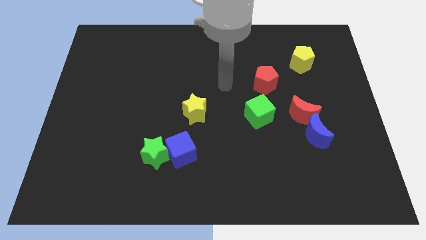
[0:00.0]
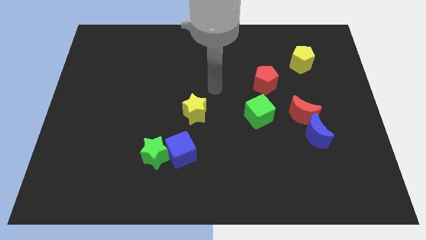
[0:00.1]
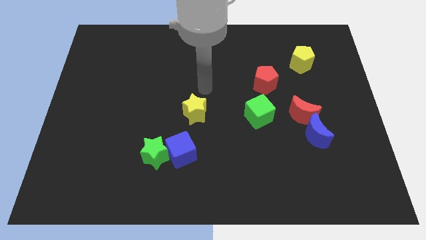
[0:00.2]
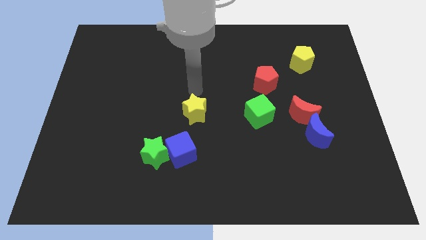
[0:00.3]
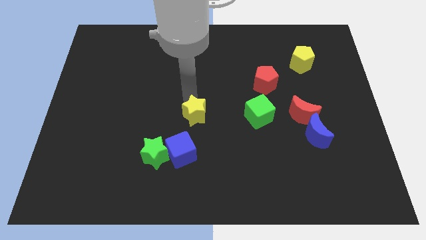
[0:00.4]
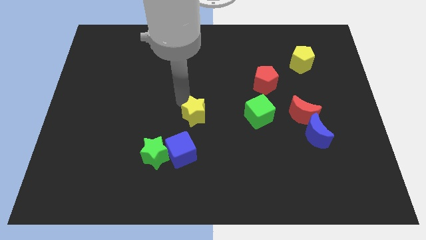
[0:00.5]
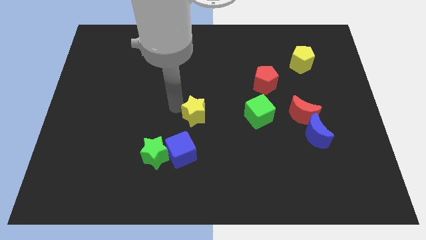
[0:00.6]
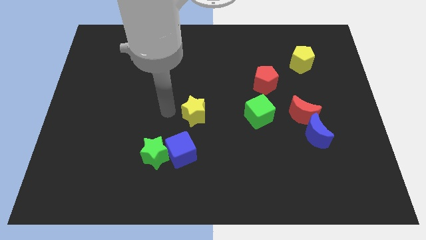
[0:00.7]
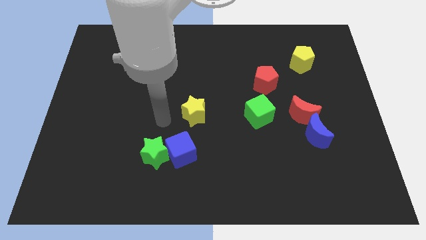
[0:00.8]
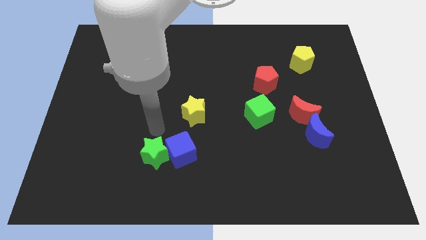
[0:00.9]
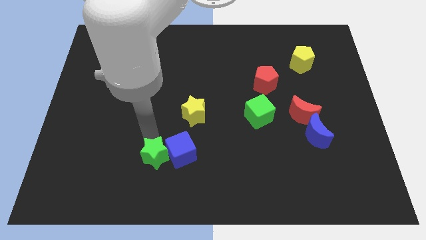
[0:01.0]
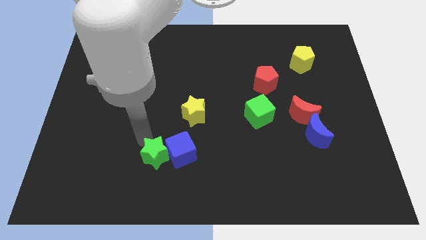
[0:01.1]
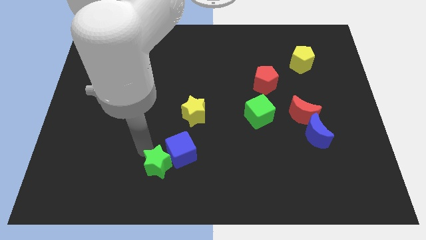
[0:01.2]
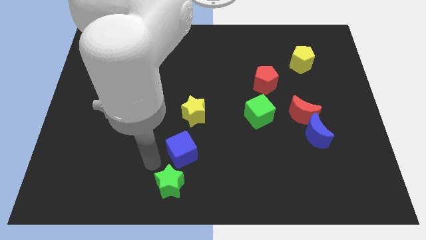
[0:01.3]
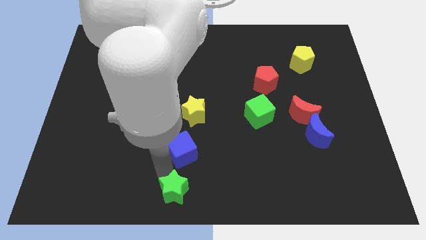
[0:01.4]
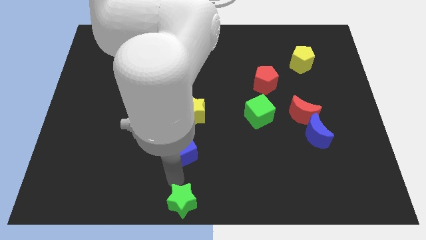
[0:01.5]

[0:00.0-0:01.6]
separate the blue cube from the green star

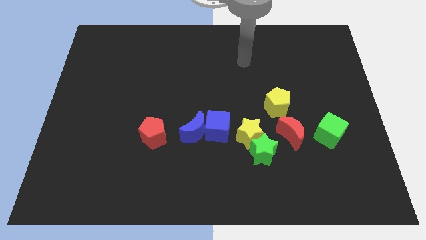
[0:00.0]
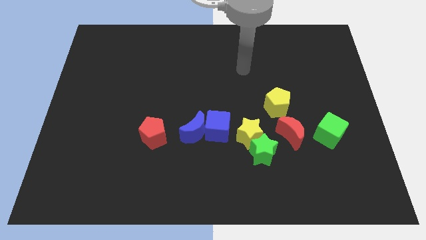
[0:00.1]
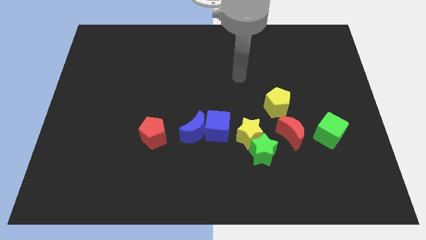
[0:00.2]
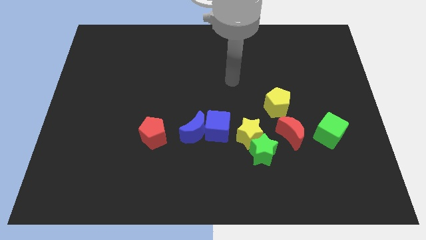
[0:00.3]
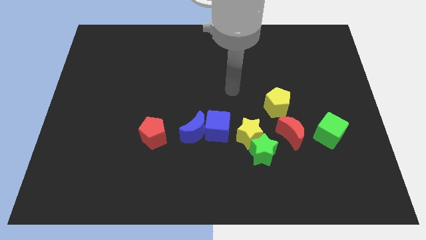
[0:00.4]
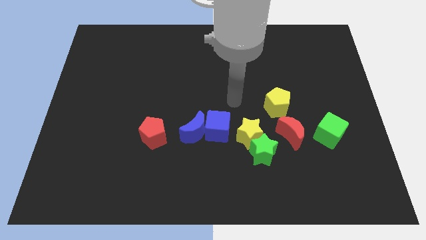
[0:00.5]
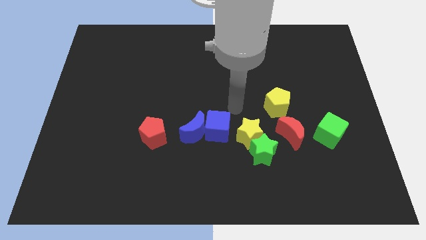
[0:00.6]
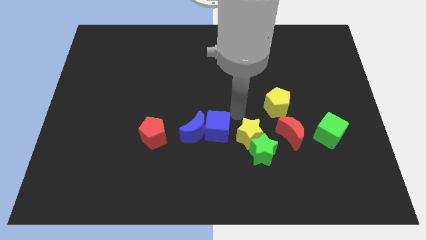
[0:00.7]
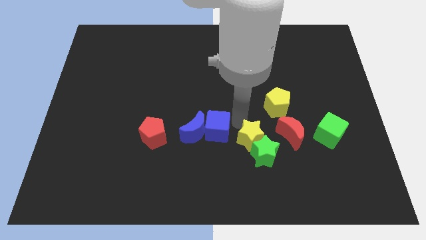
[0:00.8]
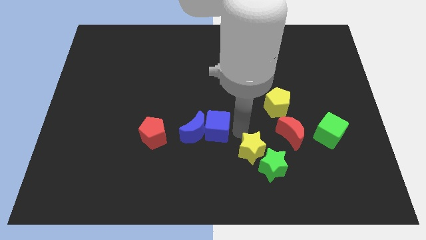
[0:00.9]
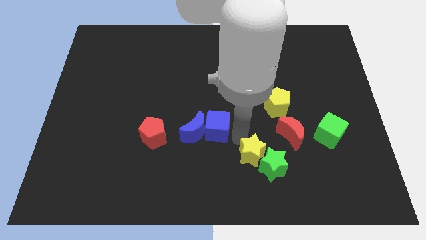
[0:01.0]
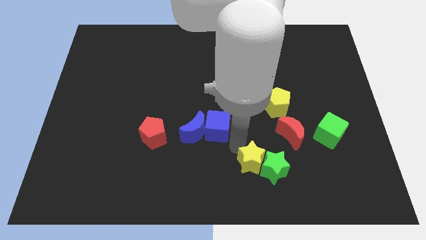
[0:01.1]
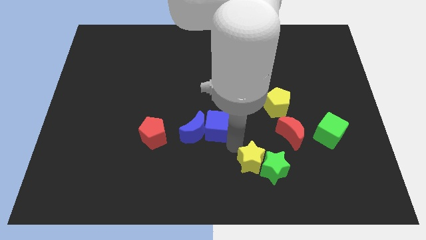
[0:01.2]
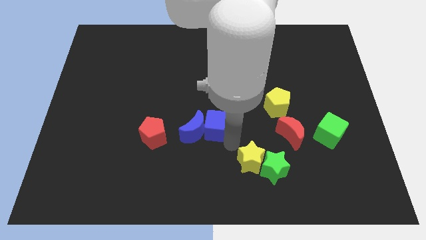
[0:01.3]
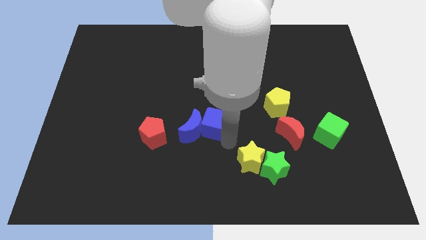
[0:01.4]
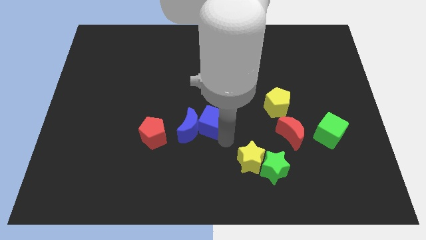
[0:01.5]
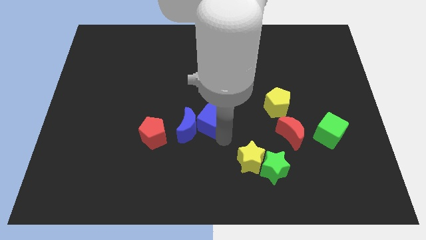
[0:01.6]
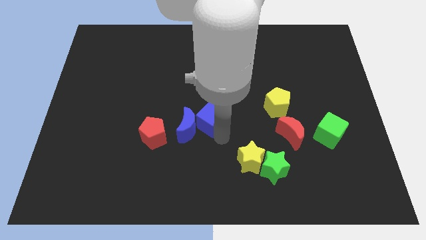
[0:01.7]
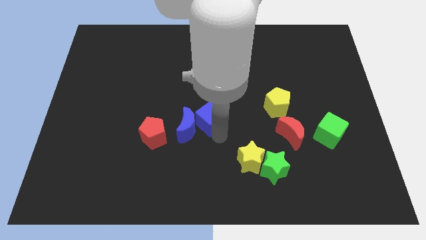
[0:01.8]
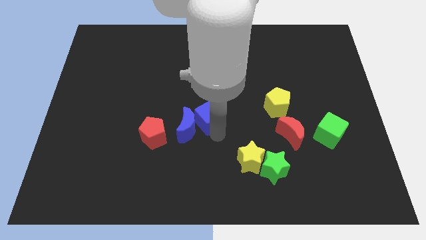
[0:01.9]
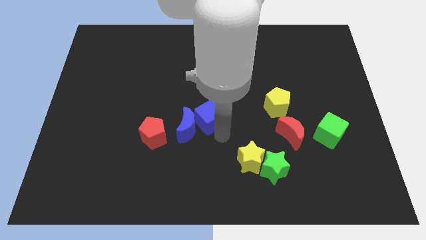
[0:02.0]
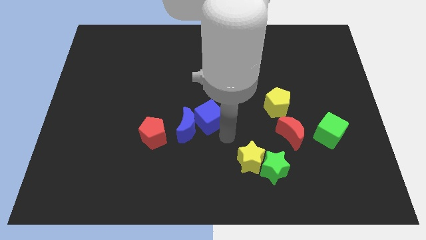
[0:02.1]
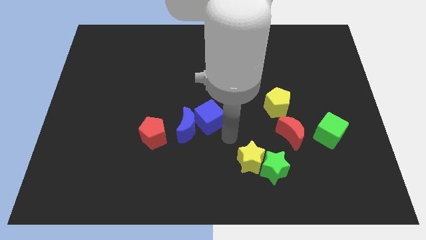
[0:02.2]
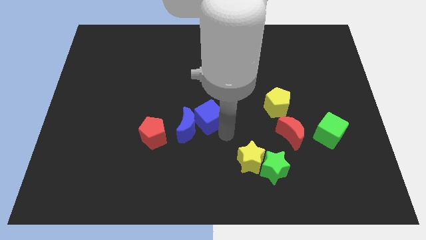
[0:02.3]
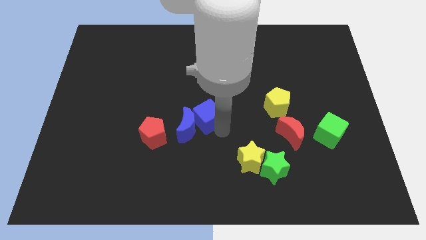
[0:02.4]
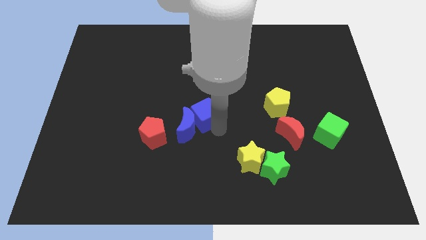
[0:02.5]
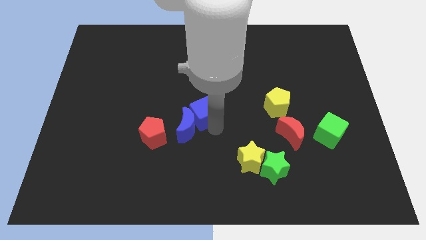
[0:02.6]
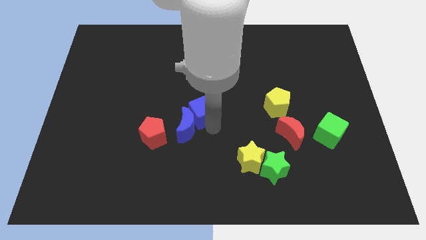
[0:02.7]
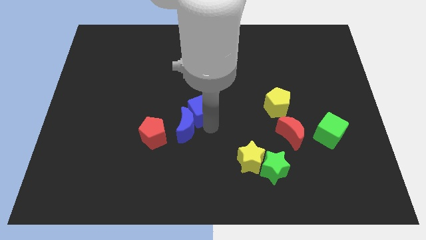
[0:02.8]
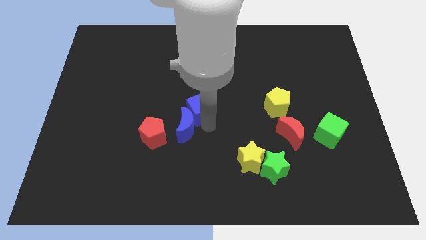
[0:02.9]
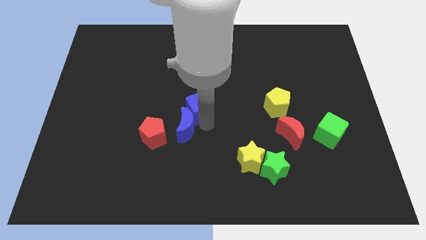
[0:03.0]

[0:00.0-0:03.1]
move the blue cube away from the blue moon and yellow star

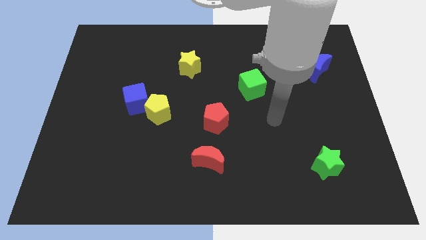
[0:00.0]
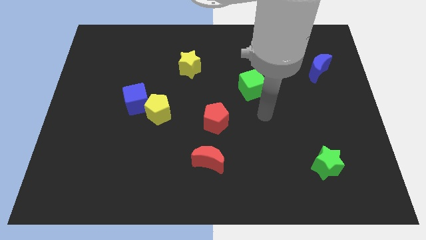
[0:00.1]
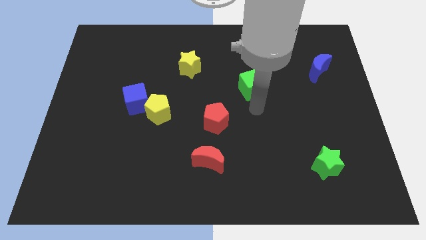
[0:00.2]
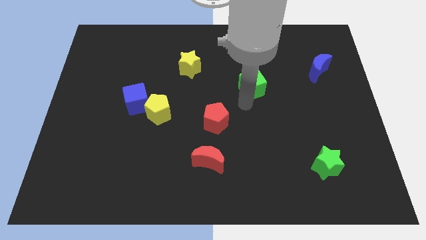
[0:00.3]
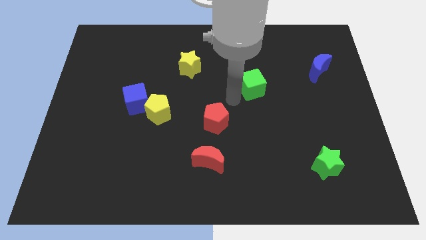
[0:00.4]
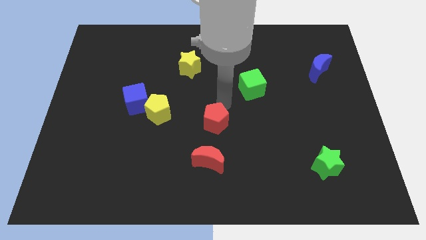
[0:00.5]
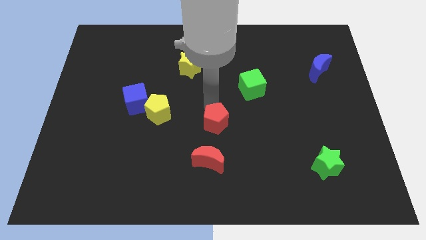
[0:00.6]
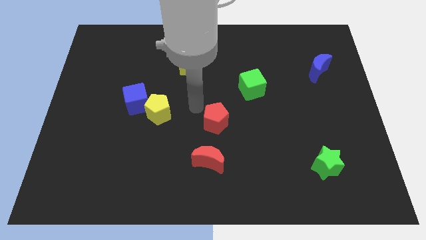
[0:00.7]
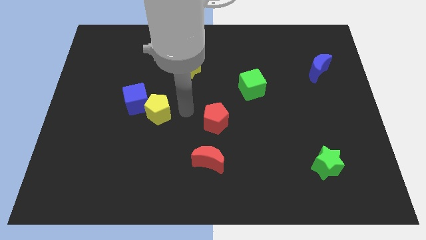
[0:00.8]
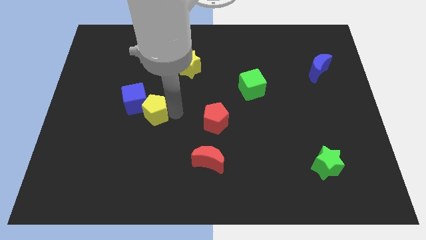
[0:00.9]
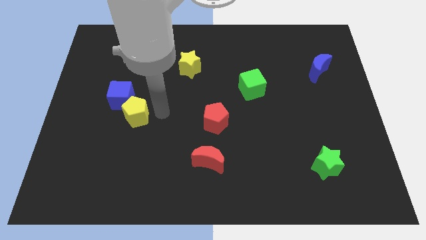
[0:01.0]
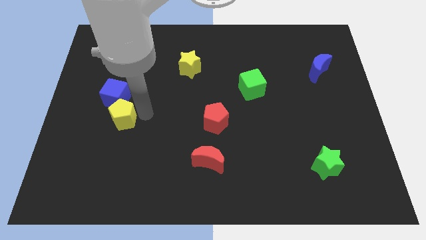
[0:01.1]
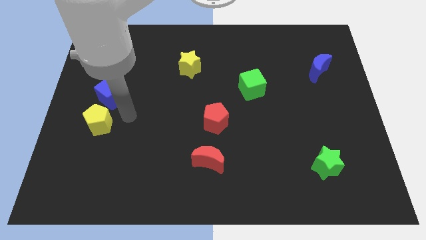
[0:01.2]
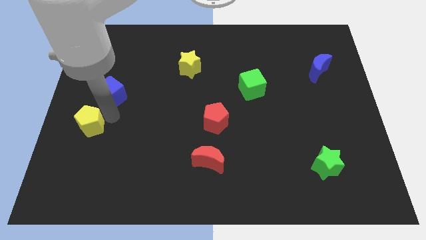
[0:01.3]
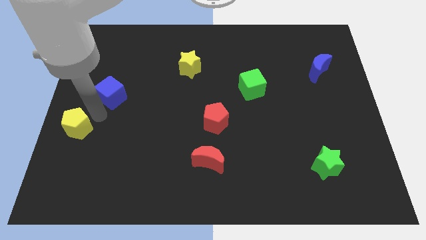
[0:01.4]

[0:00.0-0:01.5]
move the blue cube away from the yellow pentagon

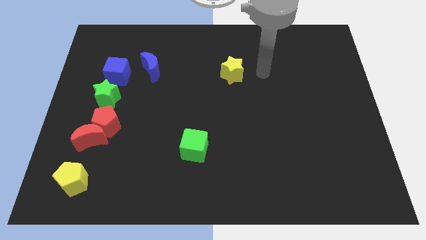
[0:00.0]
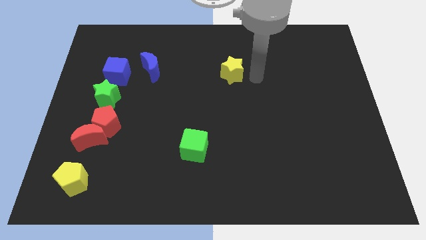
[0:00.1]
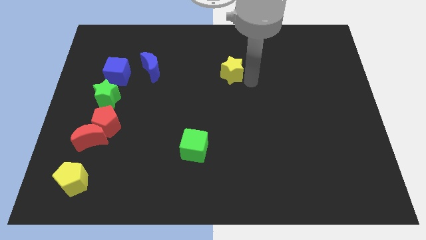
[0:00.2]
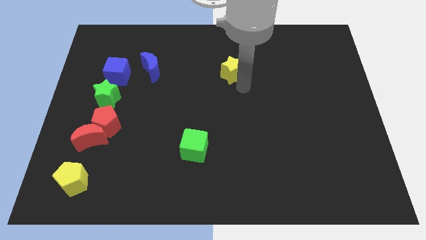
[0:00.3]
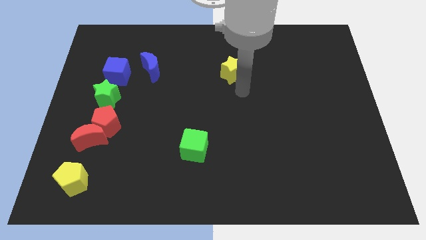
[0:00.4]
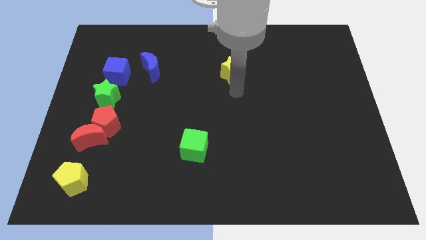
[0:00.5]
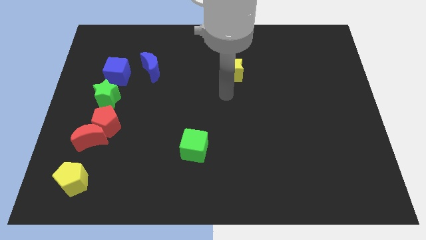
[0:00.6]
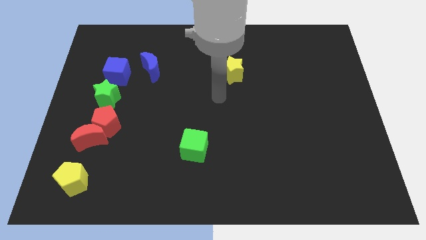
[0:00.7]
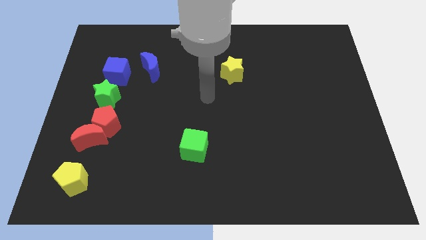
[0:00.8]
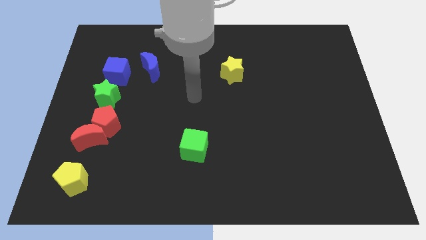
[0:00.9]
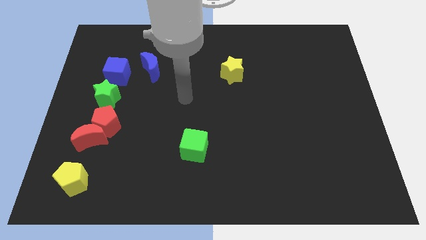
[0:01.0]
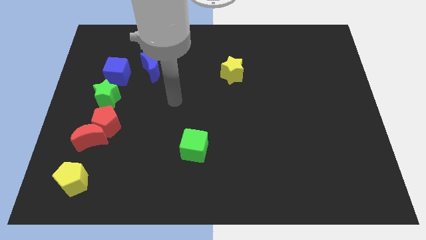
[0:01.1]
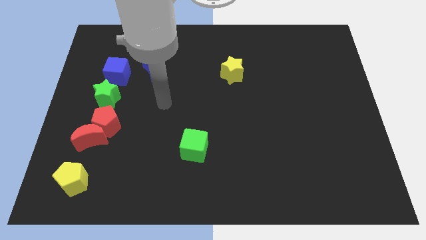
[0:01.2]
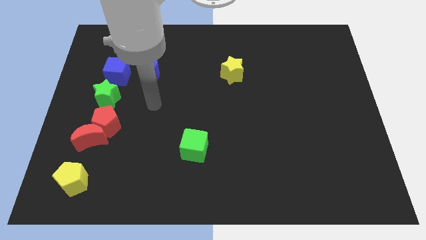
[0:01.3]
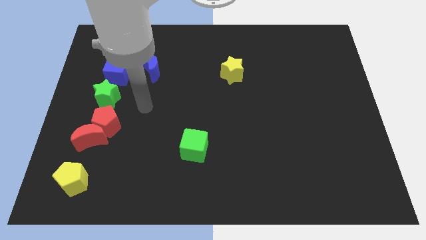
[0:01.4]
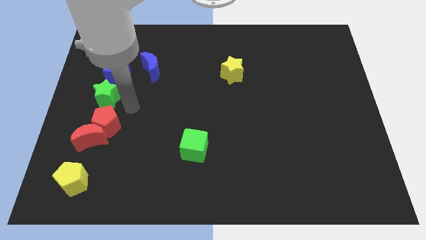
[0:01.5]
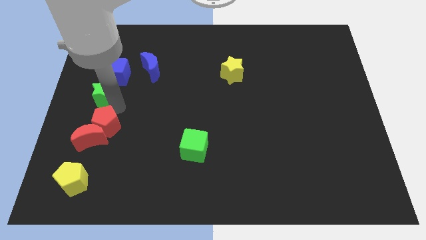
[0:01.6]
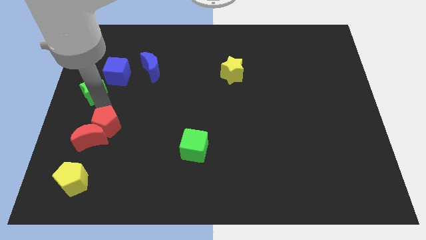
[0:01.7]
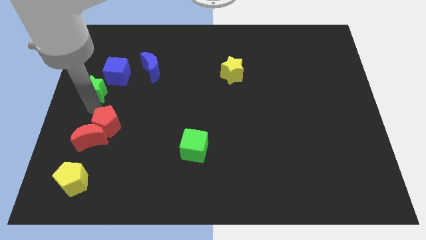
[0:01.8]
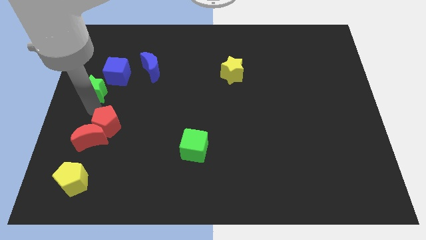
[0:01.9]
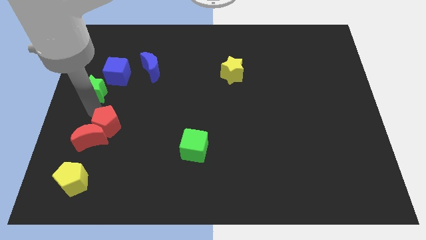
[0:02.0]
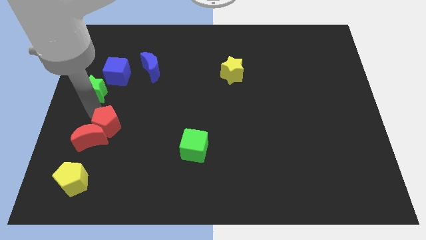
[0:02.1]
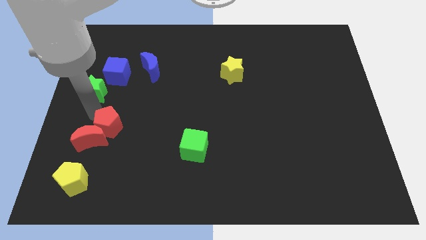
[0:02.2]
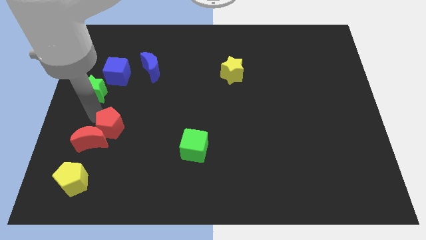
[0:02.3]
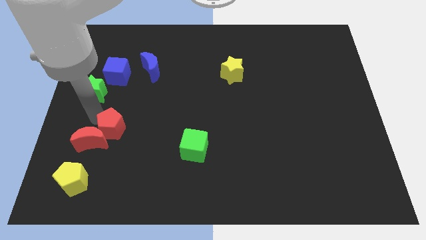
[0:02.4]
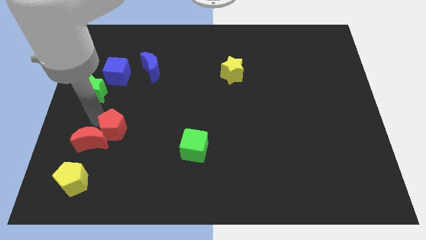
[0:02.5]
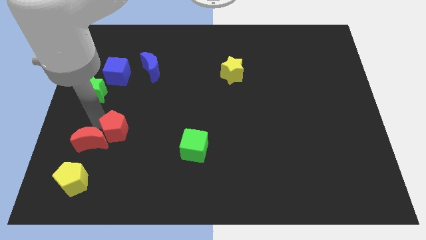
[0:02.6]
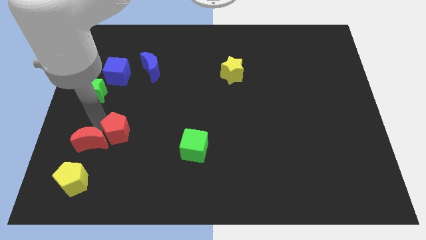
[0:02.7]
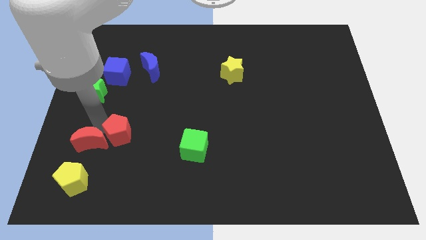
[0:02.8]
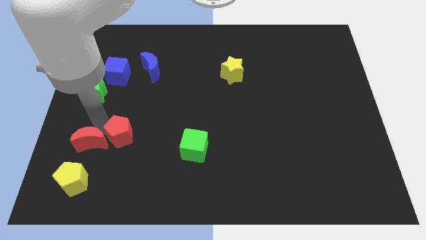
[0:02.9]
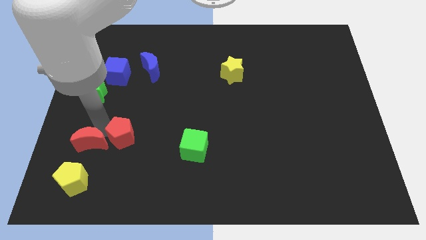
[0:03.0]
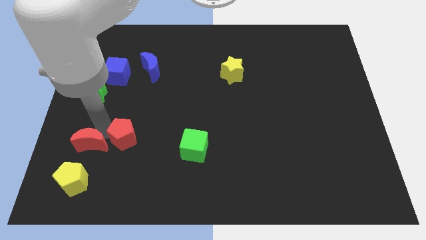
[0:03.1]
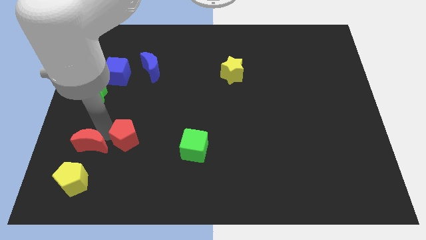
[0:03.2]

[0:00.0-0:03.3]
pull the red pentagon apart from the red moon and green star
